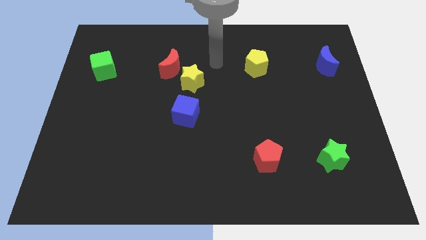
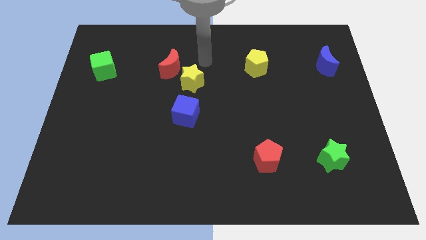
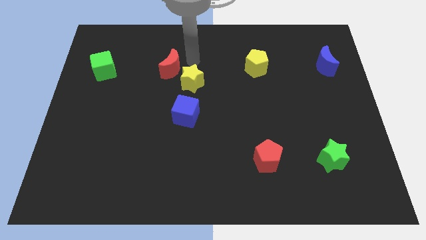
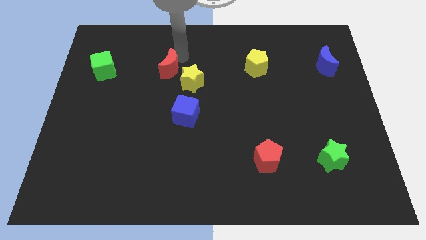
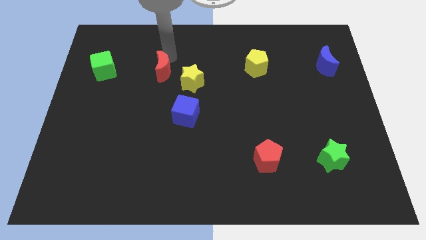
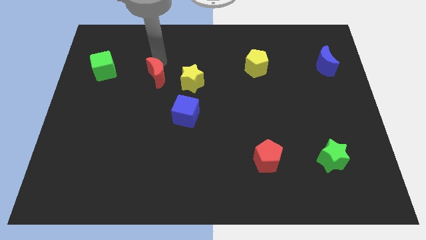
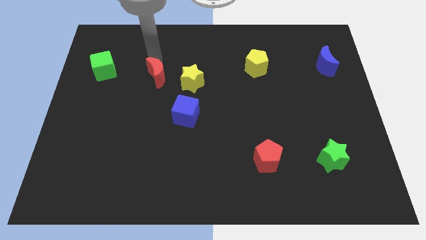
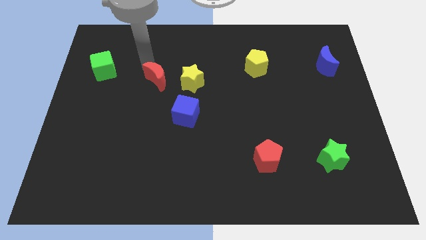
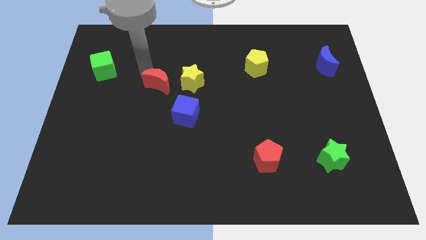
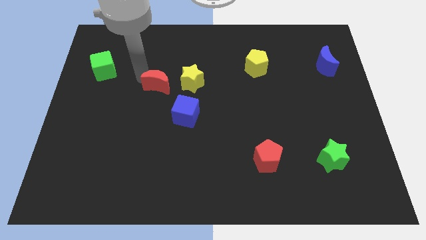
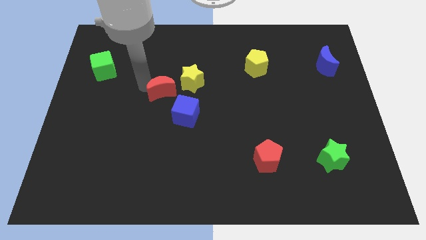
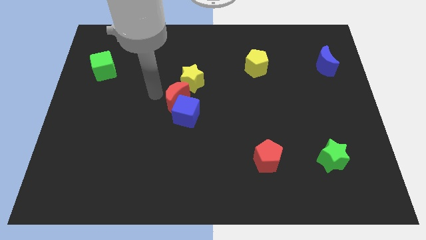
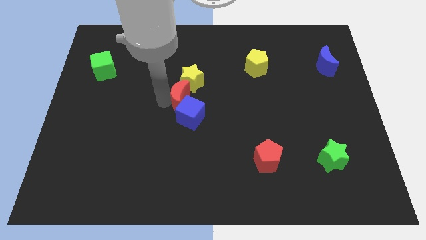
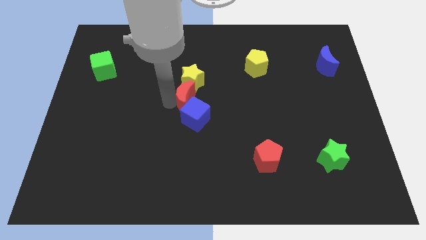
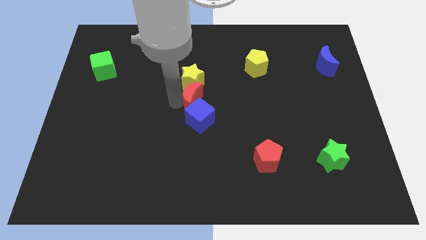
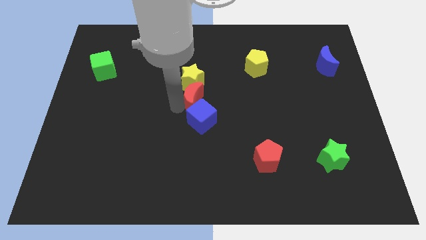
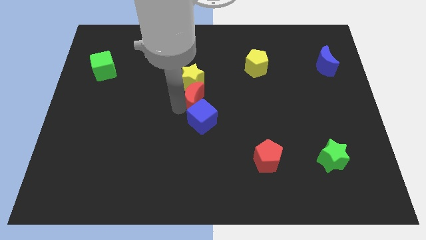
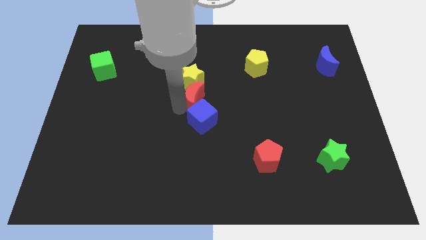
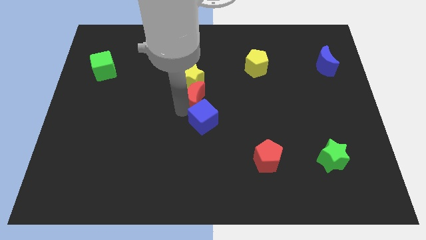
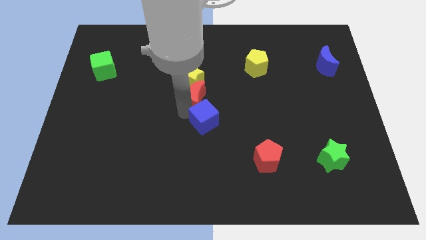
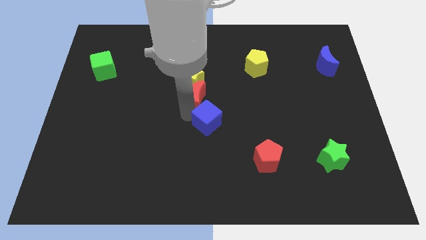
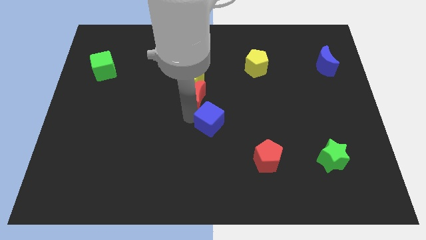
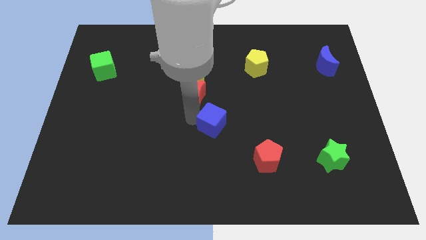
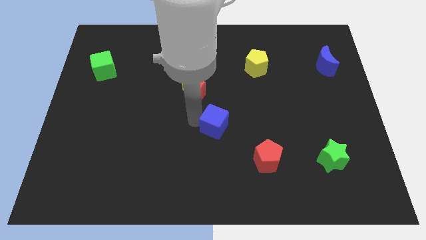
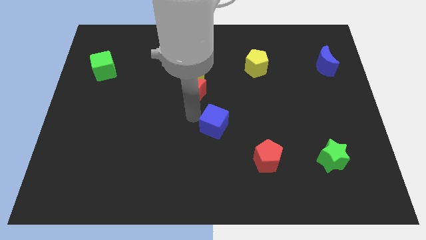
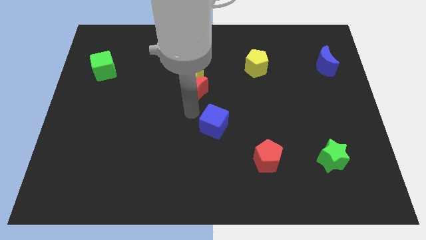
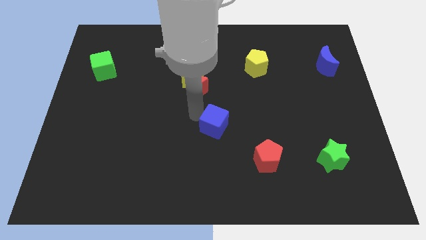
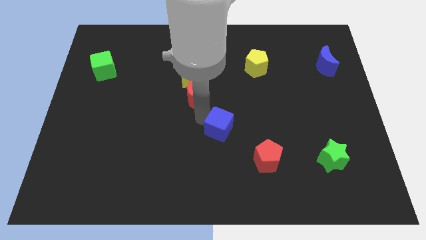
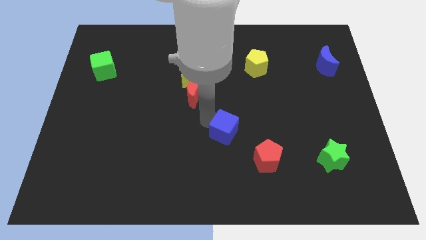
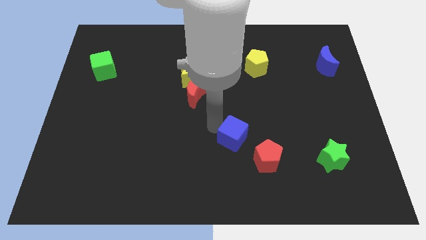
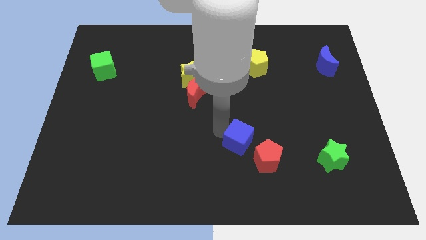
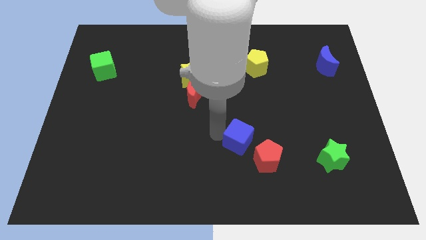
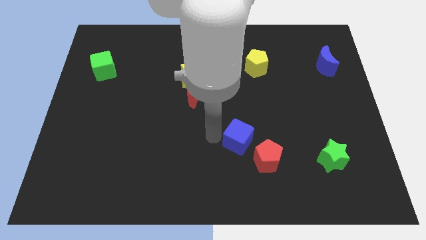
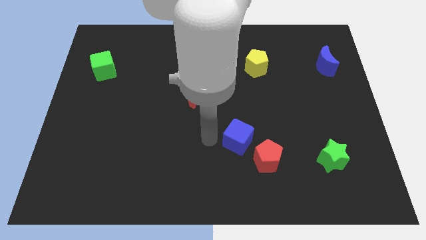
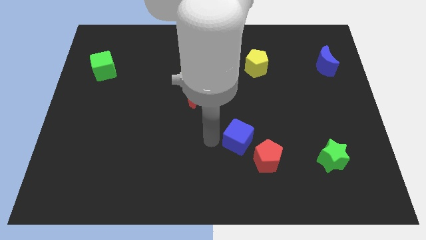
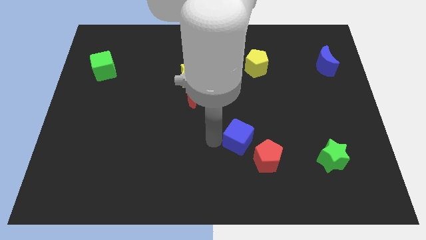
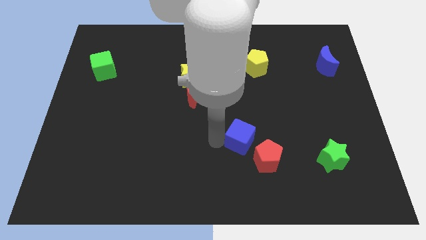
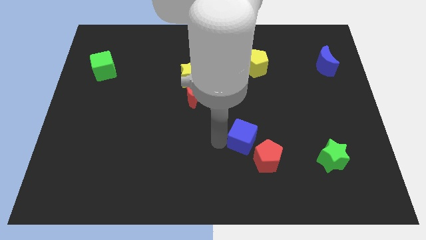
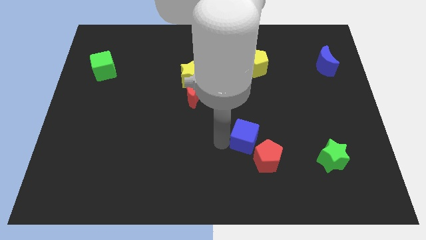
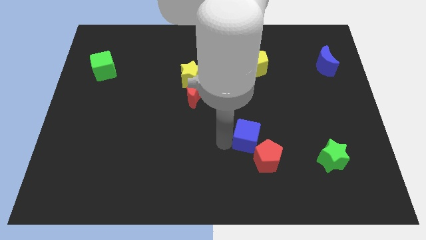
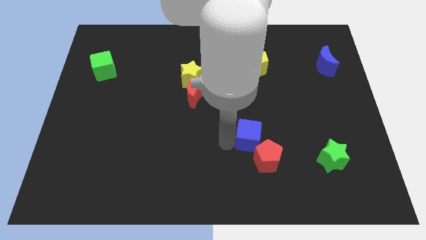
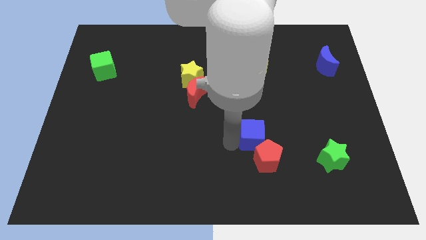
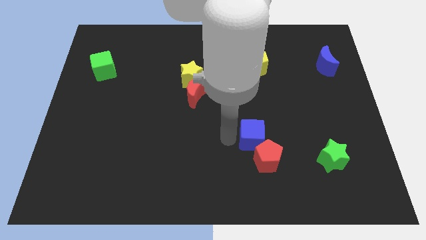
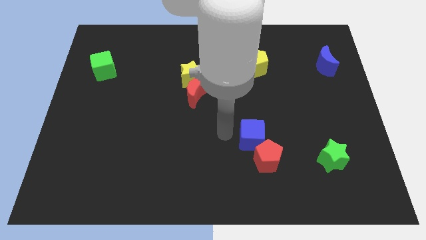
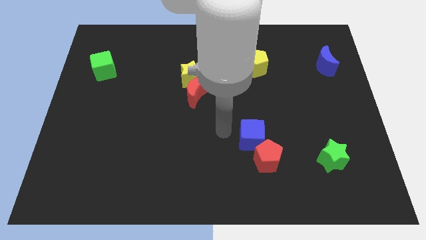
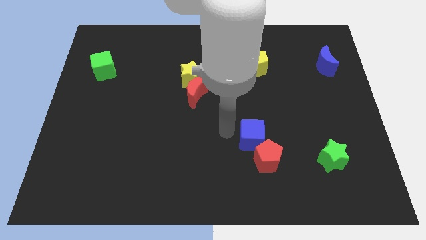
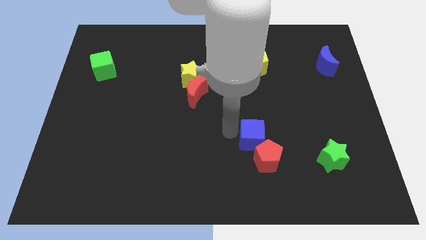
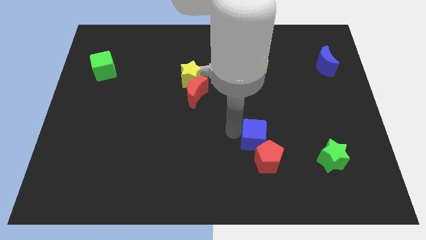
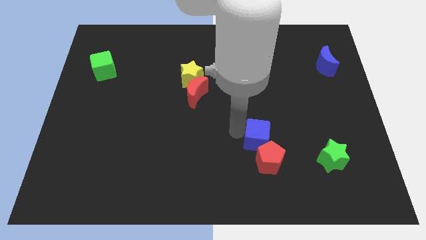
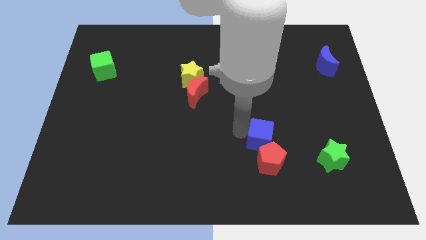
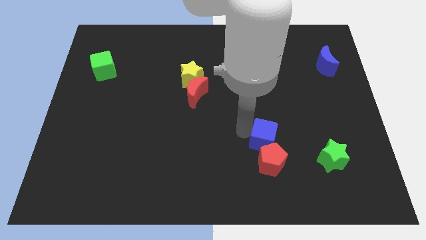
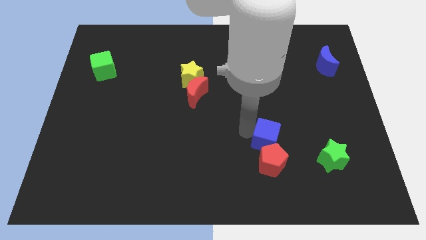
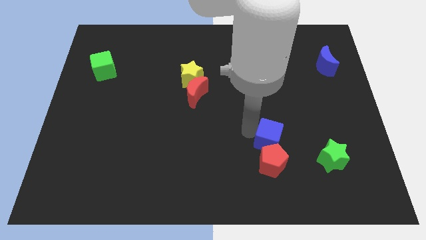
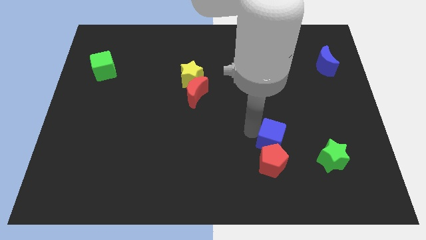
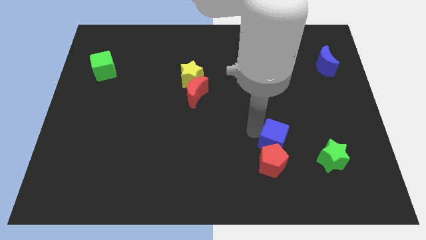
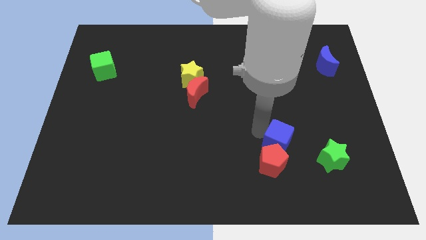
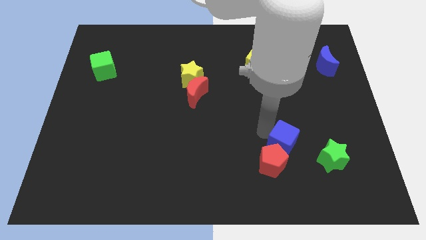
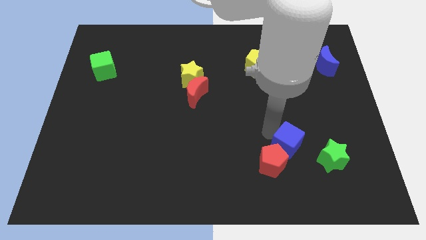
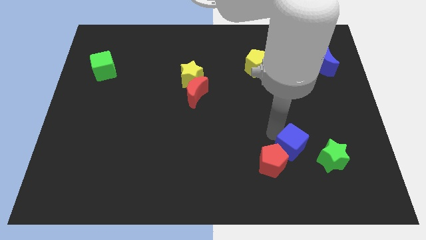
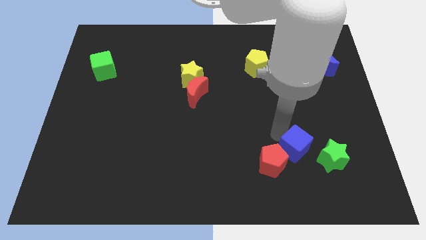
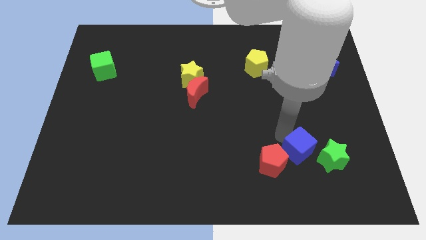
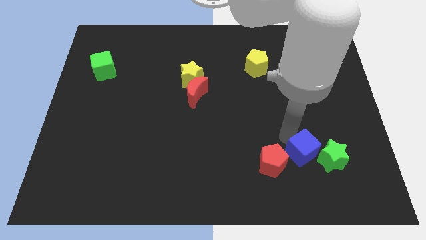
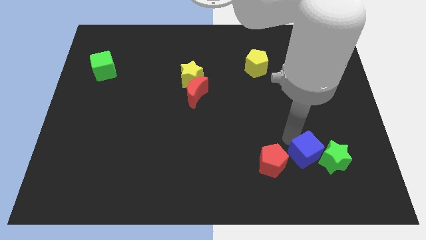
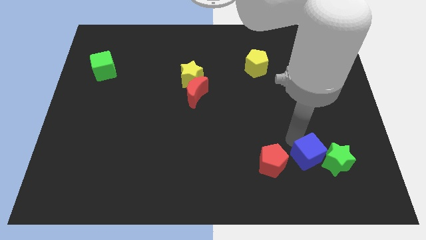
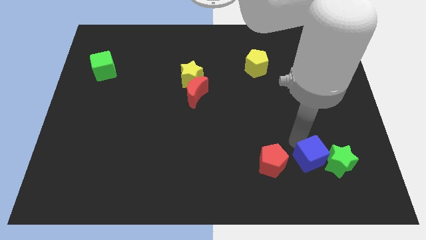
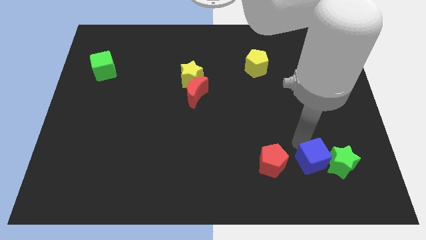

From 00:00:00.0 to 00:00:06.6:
move the blue cube to the bottom left of the green star

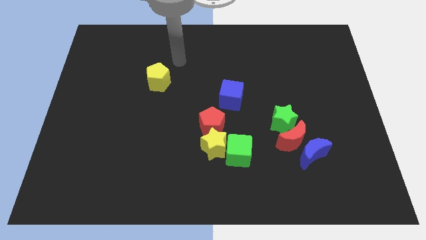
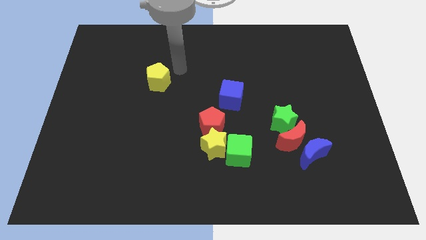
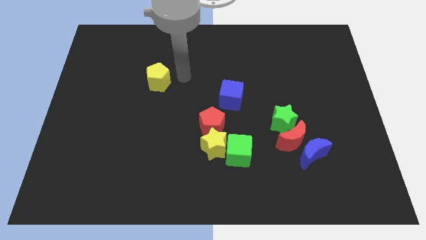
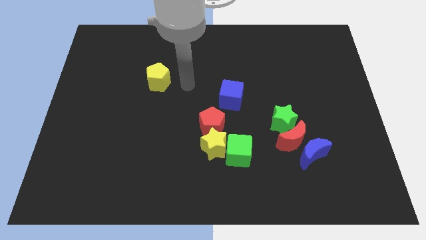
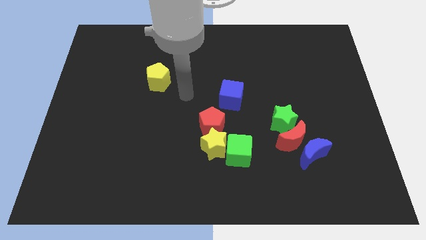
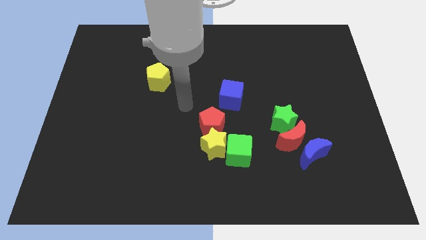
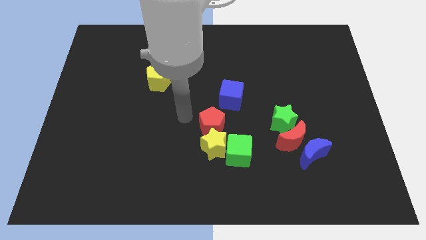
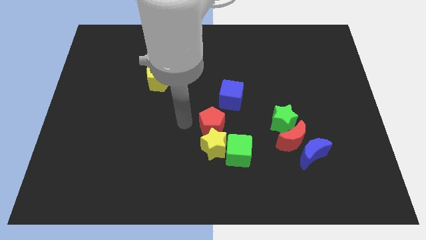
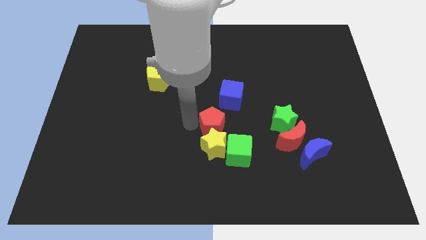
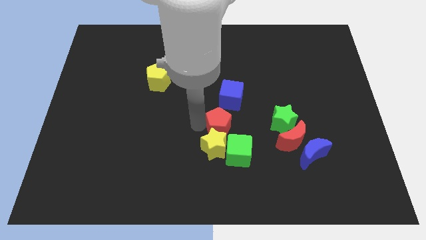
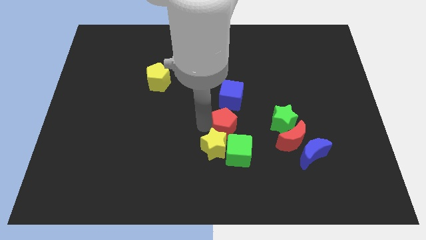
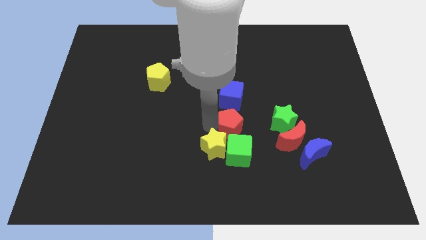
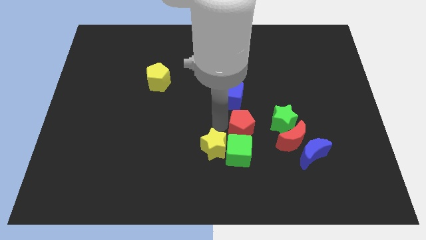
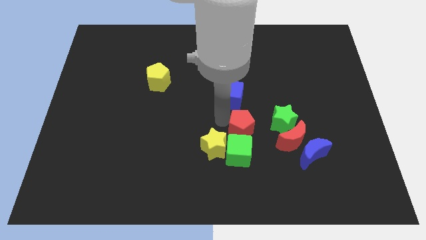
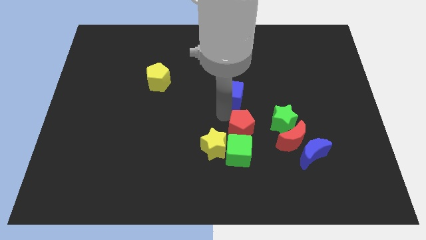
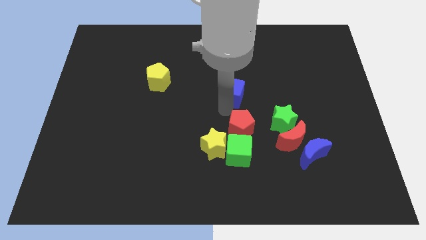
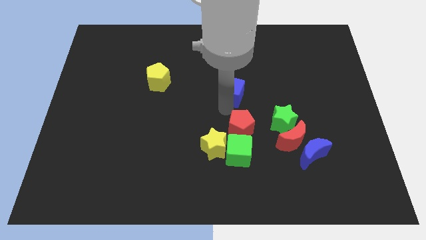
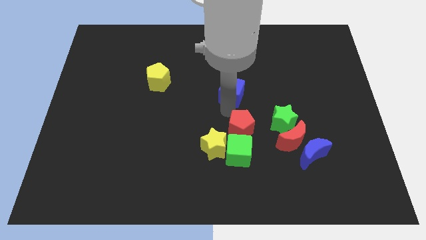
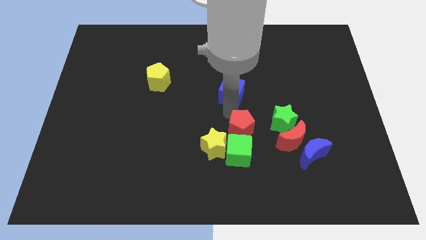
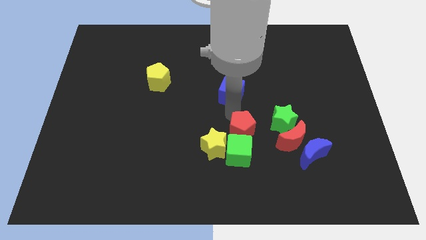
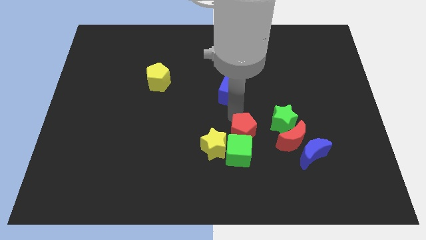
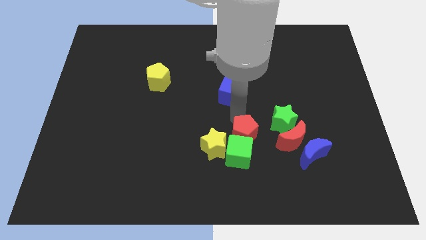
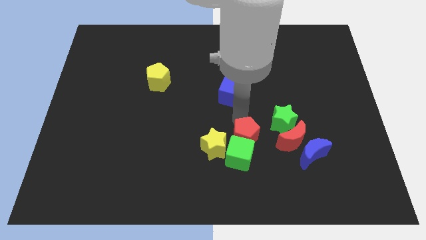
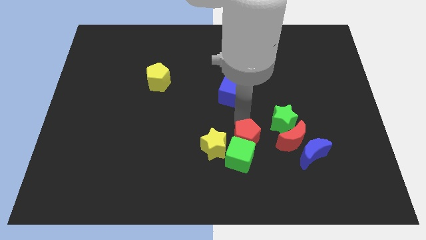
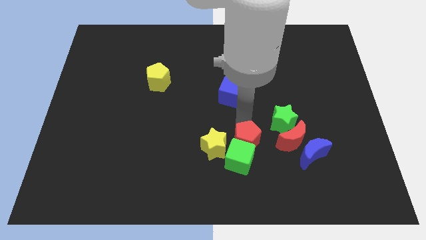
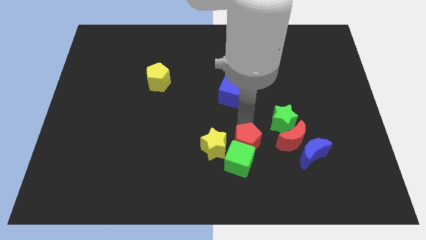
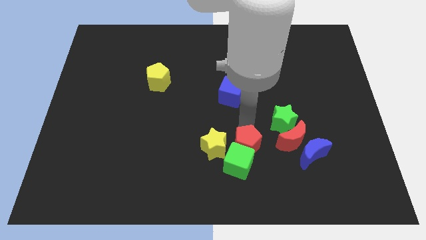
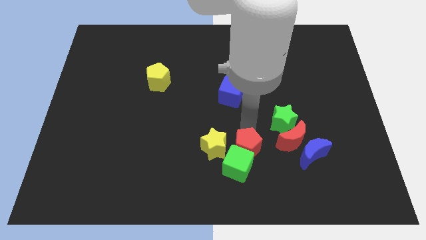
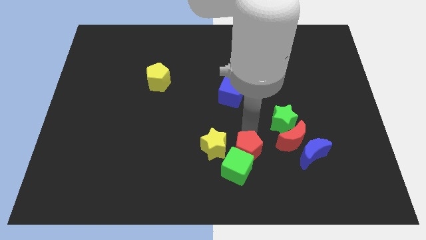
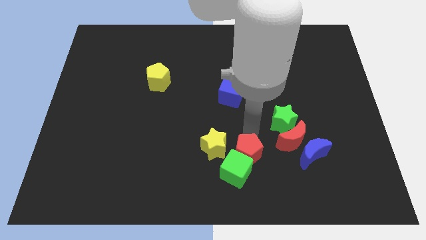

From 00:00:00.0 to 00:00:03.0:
move the red pentagon diagonally down and to the left of the red moon
